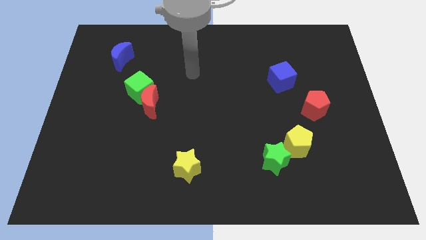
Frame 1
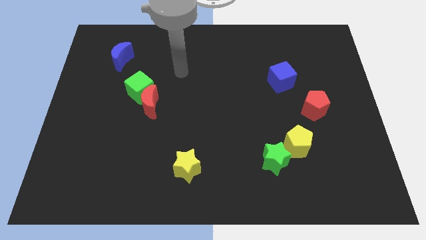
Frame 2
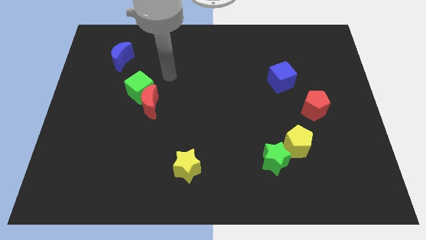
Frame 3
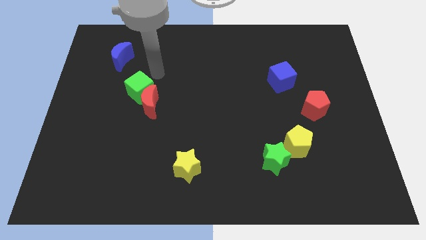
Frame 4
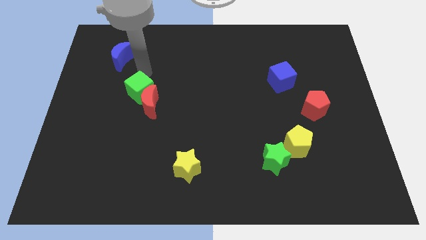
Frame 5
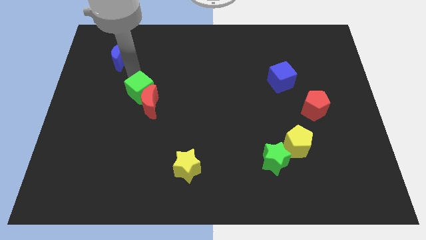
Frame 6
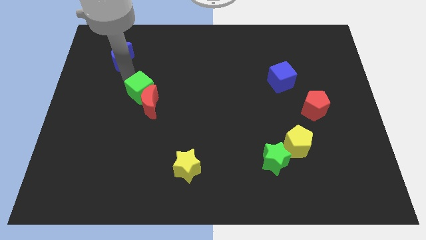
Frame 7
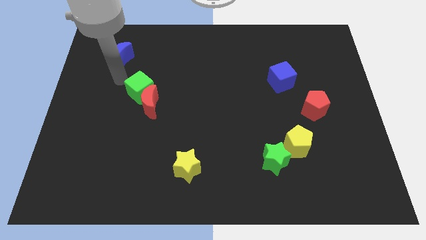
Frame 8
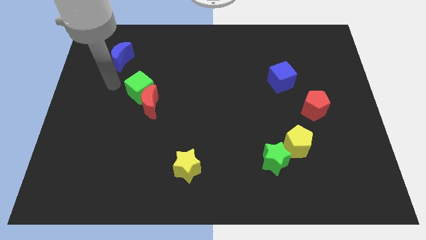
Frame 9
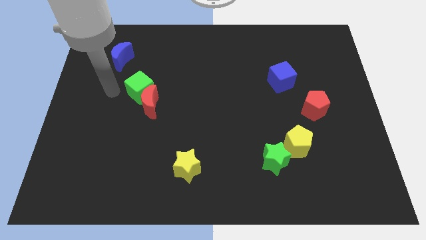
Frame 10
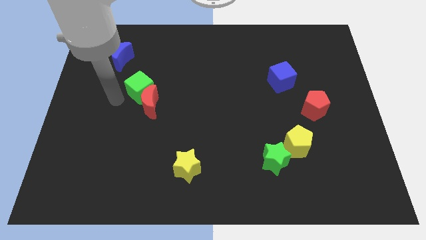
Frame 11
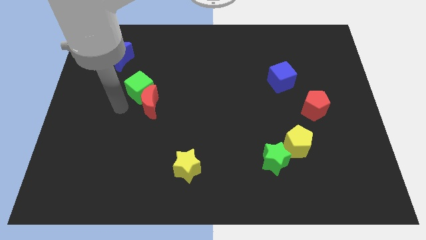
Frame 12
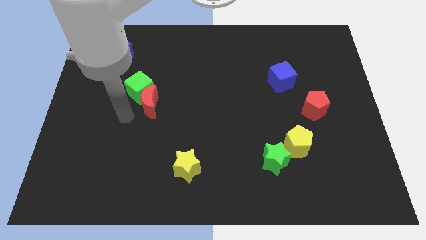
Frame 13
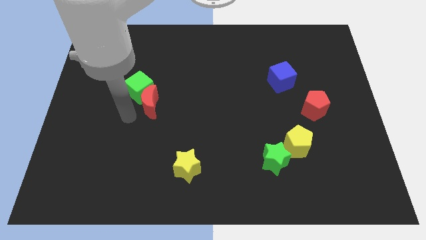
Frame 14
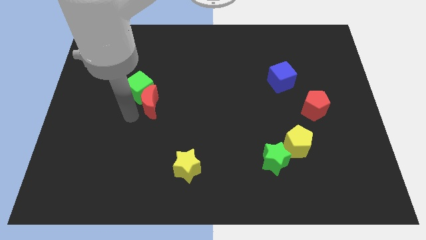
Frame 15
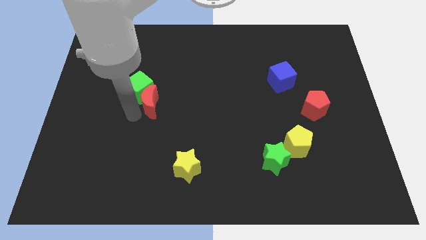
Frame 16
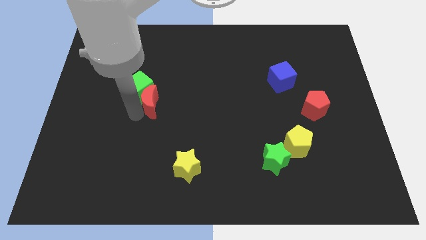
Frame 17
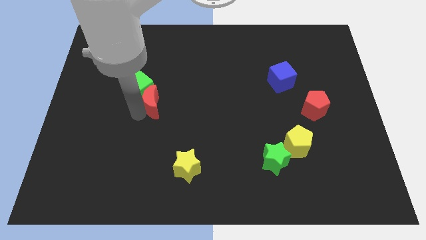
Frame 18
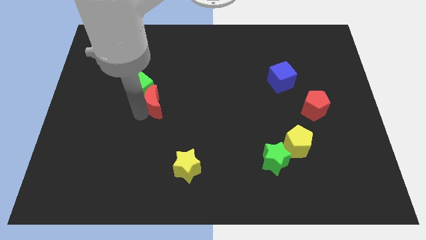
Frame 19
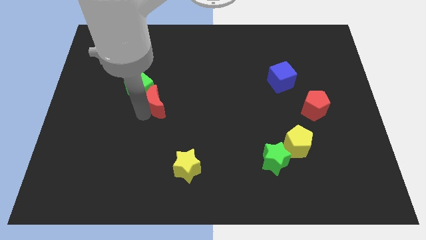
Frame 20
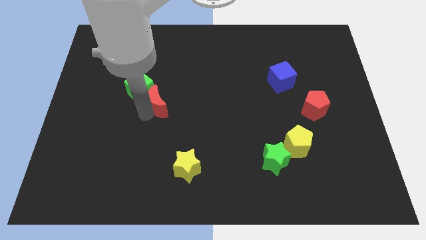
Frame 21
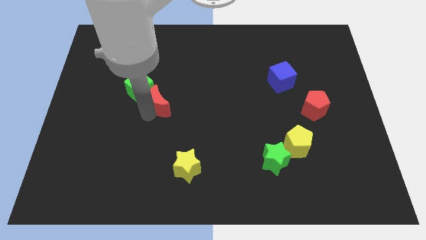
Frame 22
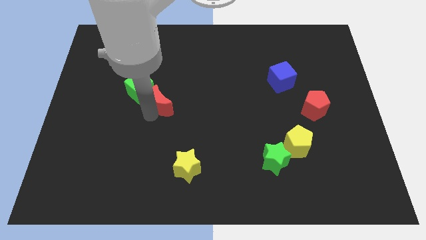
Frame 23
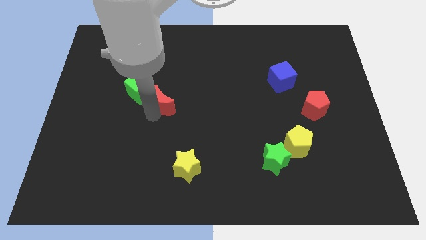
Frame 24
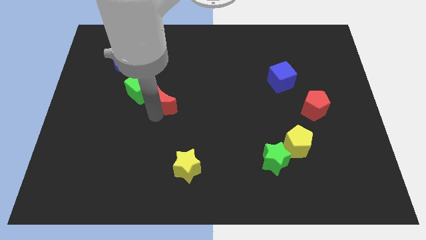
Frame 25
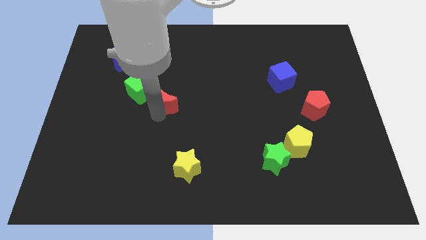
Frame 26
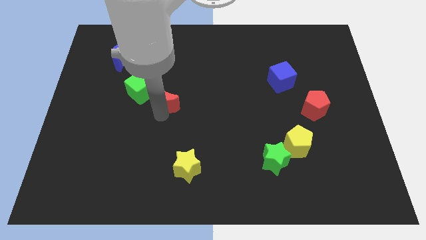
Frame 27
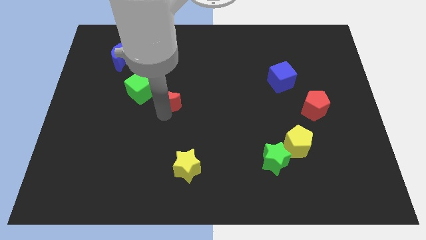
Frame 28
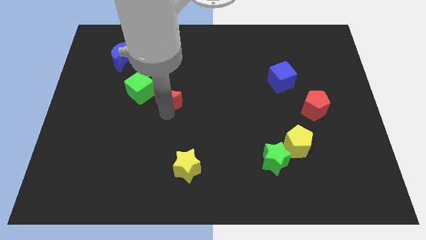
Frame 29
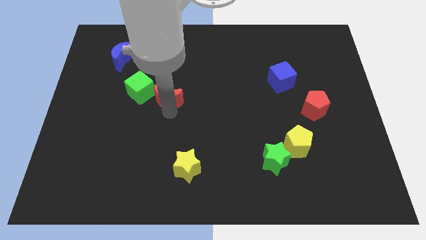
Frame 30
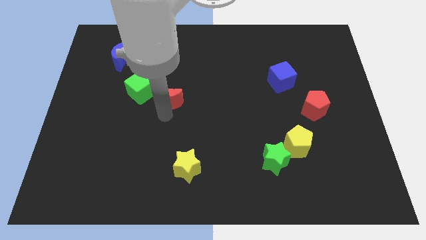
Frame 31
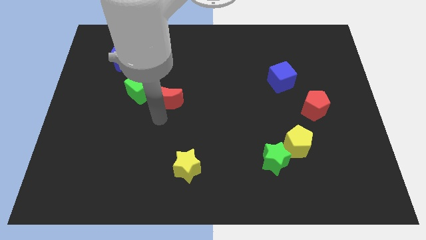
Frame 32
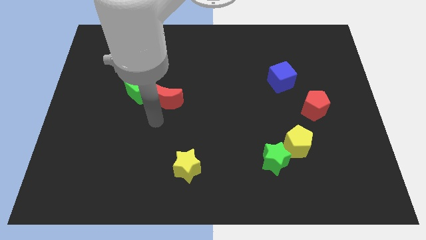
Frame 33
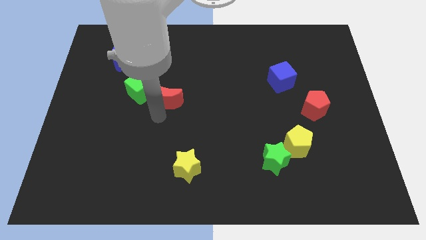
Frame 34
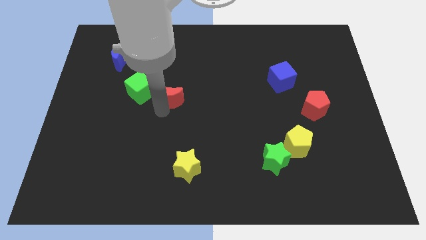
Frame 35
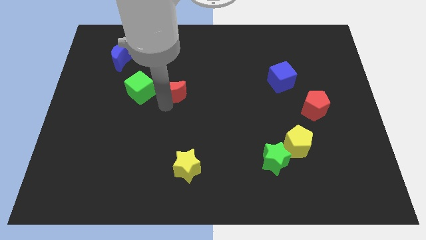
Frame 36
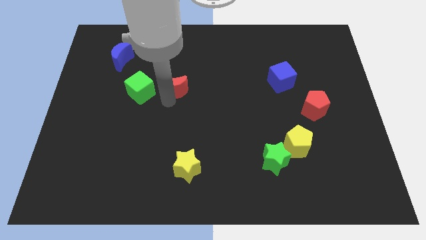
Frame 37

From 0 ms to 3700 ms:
slightly push the red moon up and then right

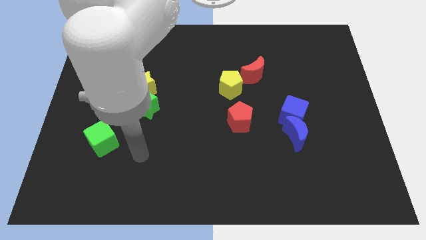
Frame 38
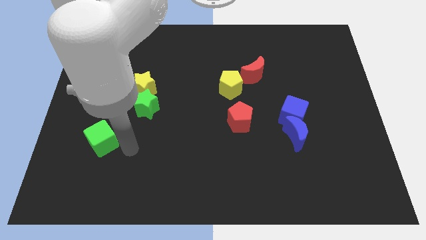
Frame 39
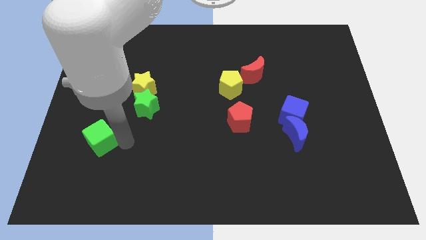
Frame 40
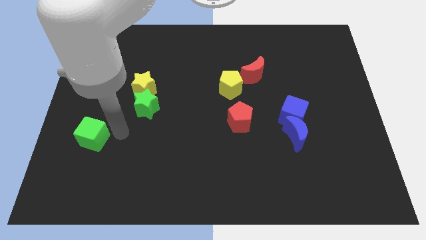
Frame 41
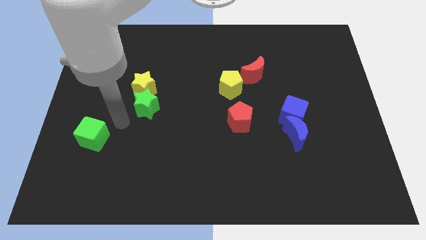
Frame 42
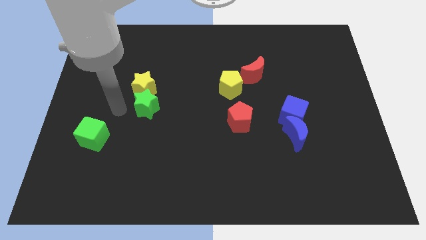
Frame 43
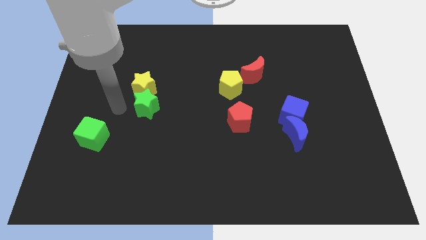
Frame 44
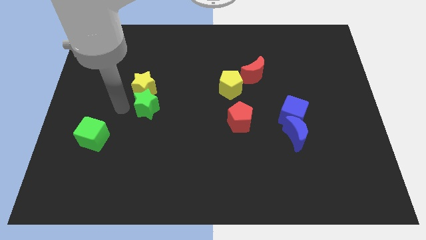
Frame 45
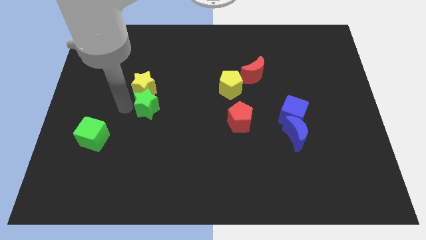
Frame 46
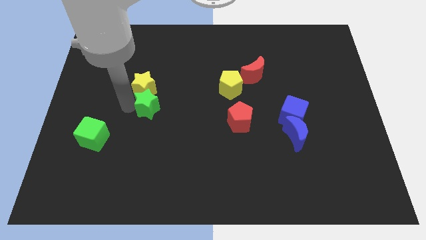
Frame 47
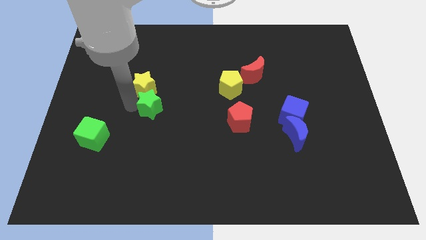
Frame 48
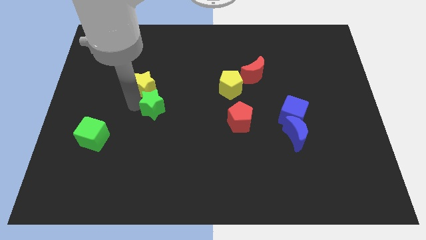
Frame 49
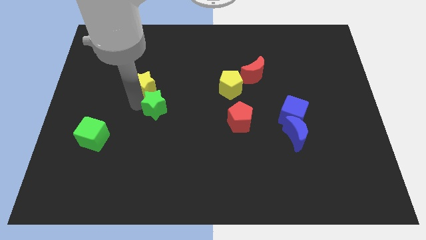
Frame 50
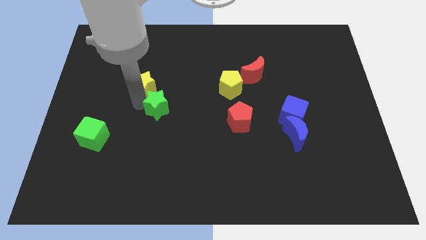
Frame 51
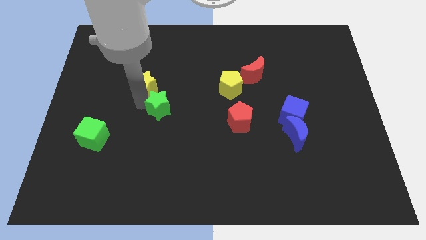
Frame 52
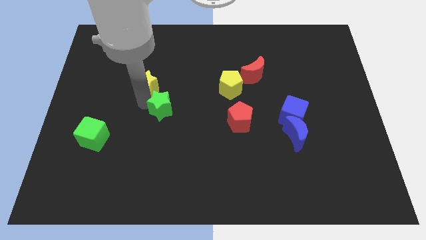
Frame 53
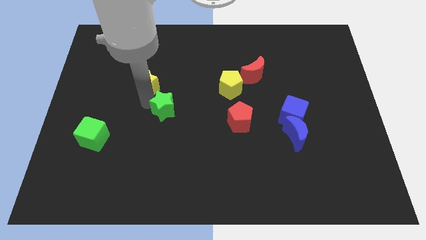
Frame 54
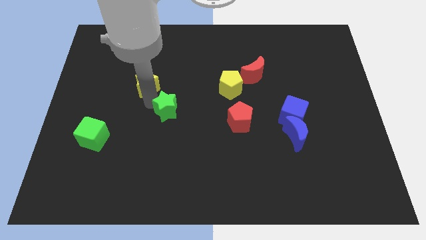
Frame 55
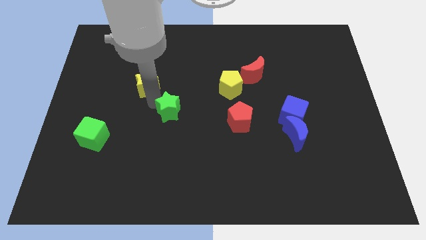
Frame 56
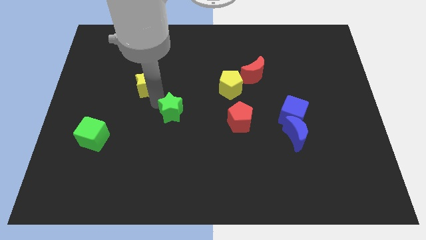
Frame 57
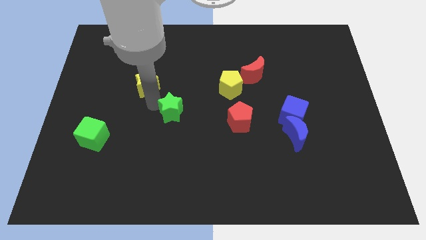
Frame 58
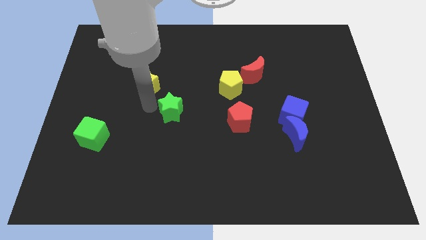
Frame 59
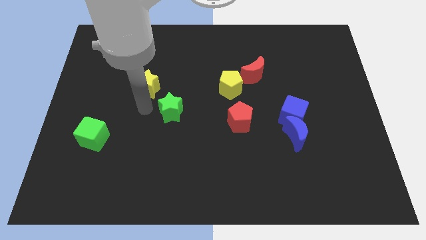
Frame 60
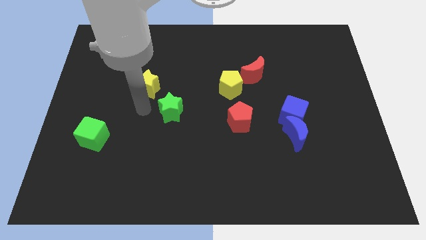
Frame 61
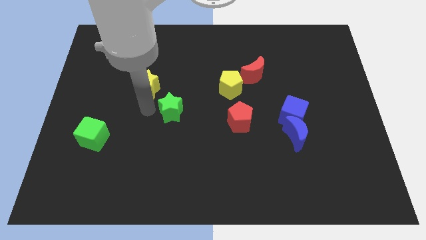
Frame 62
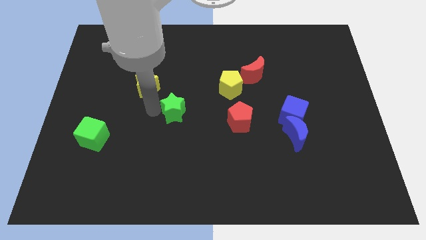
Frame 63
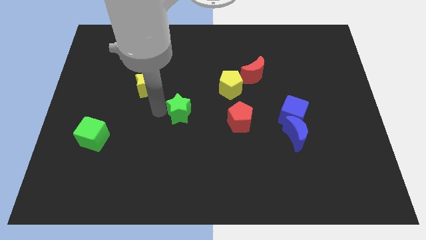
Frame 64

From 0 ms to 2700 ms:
slightly slide the green star right

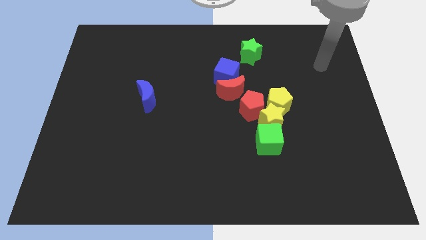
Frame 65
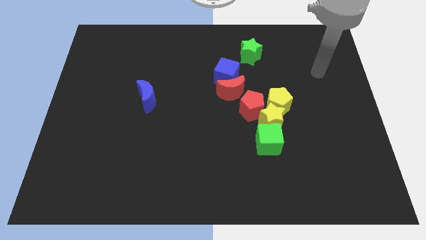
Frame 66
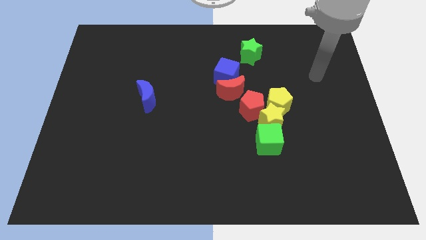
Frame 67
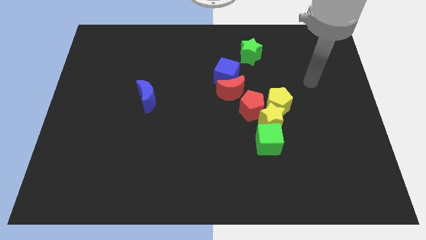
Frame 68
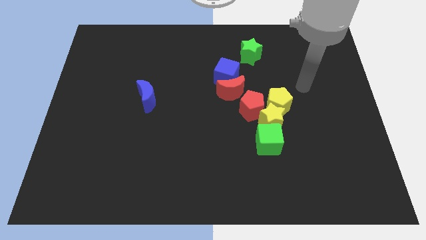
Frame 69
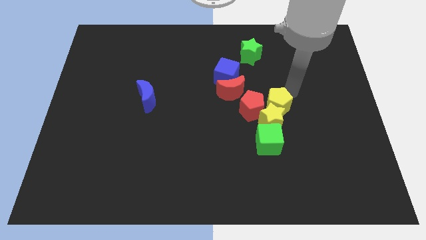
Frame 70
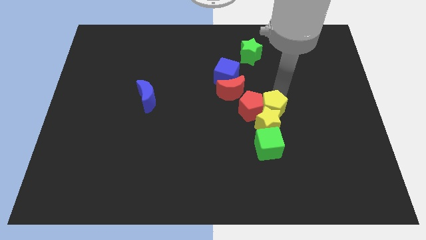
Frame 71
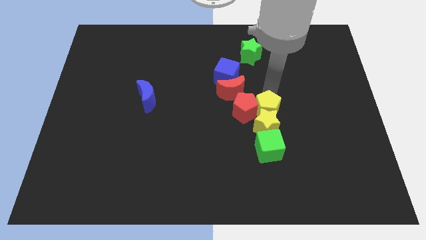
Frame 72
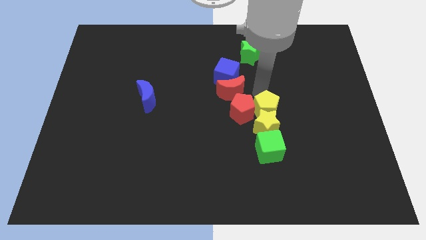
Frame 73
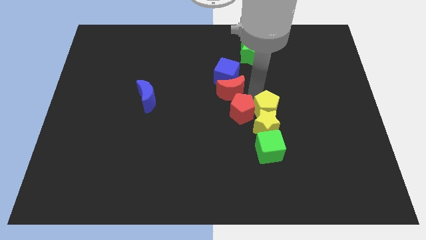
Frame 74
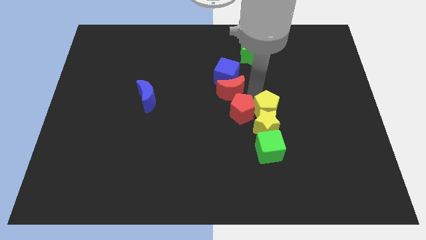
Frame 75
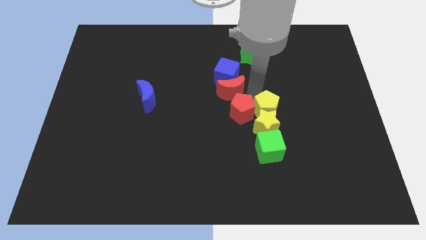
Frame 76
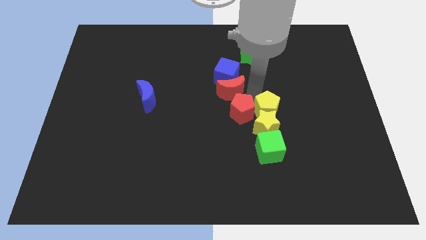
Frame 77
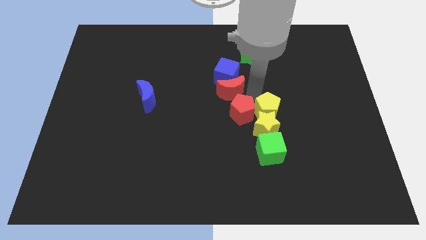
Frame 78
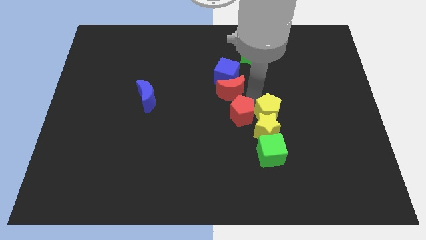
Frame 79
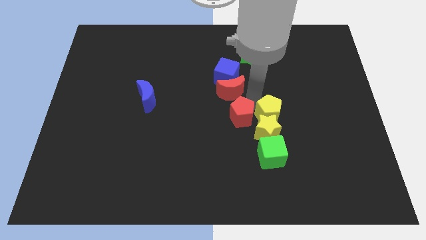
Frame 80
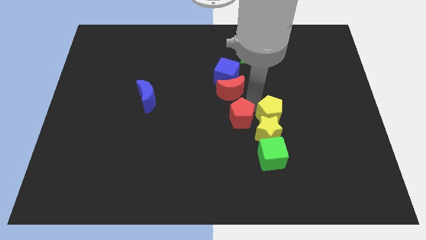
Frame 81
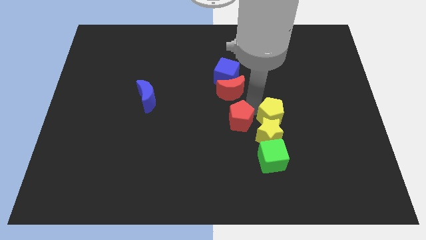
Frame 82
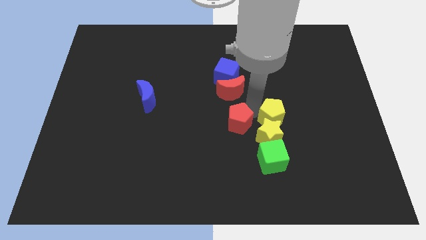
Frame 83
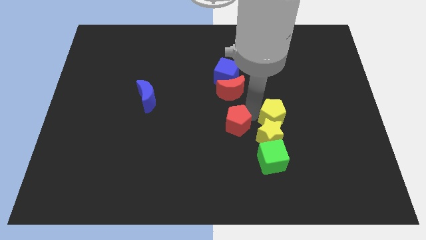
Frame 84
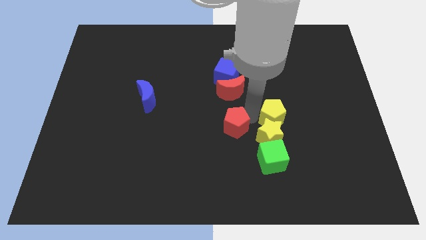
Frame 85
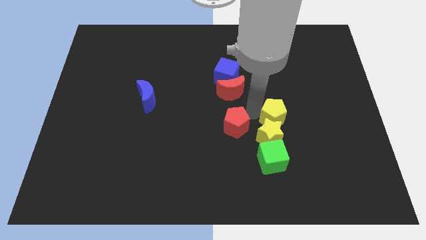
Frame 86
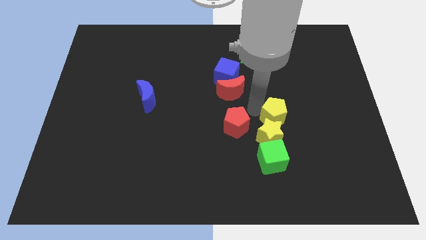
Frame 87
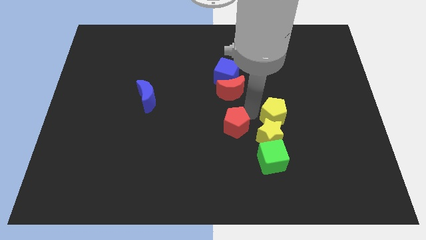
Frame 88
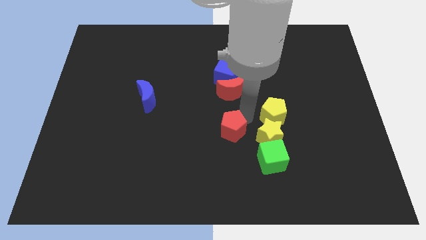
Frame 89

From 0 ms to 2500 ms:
slide the red pentagon a bit downwards and to the left diagonally
